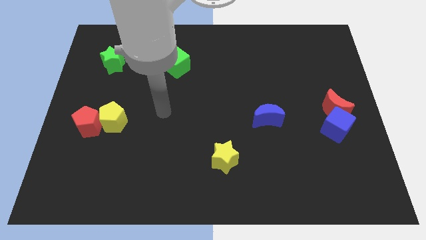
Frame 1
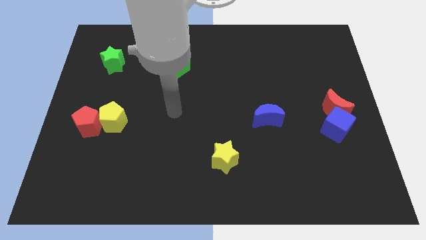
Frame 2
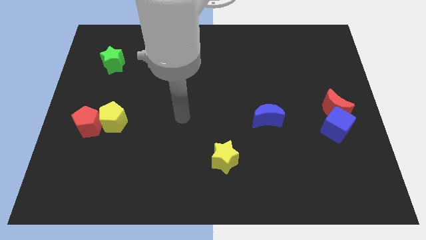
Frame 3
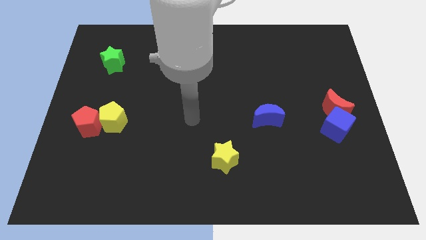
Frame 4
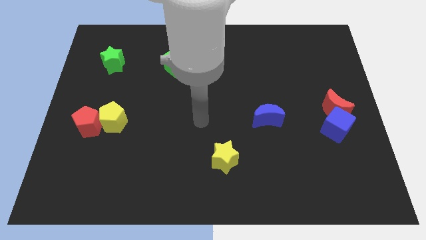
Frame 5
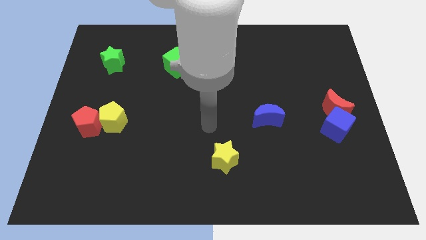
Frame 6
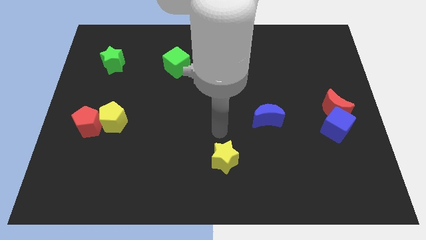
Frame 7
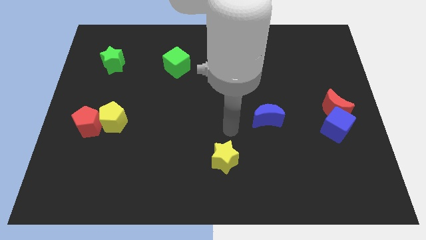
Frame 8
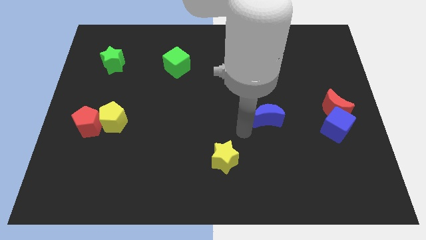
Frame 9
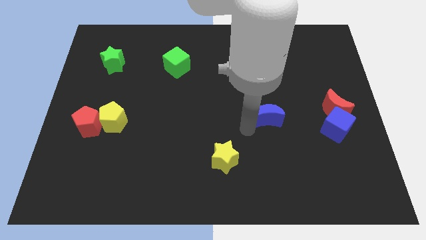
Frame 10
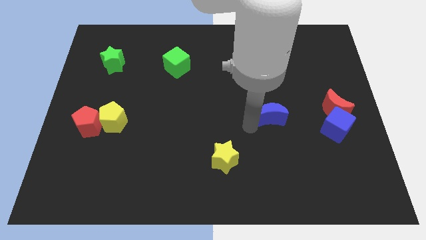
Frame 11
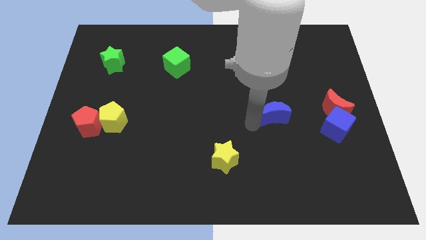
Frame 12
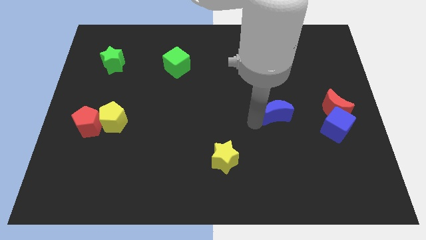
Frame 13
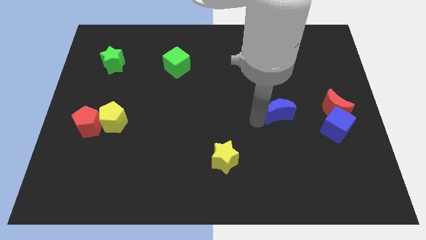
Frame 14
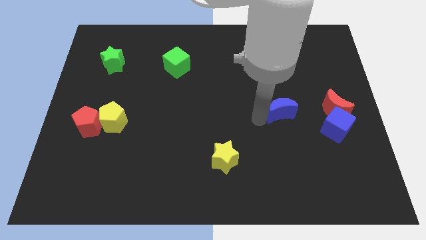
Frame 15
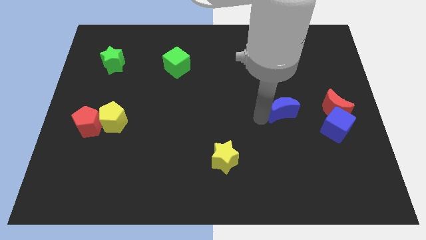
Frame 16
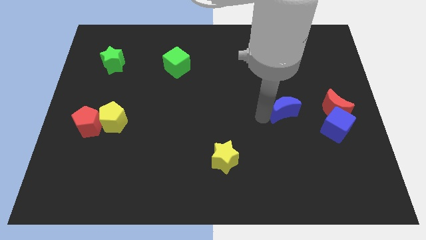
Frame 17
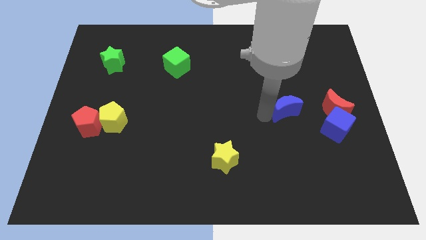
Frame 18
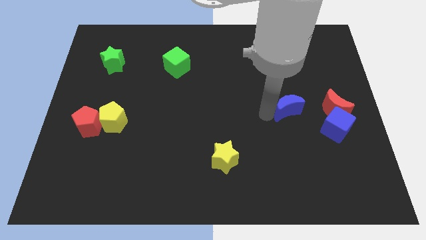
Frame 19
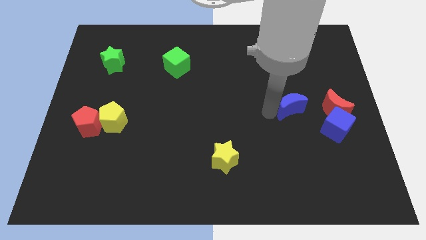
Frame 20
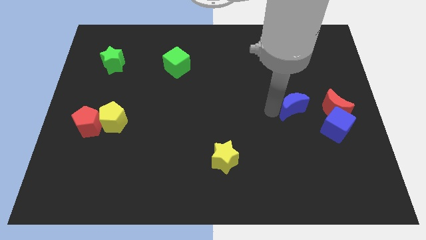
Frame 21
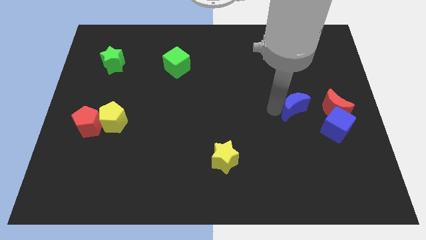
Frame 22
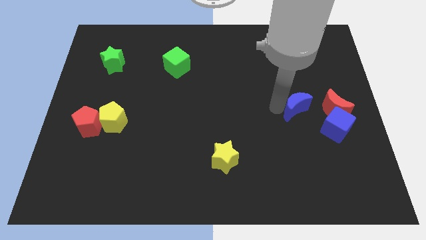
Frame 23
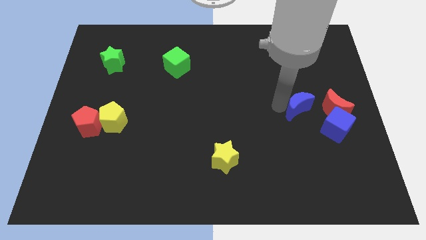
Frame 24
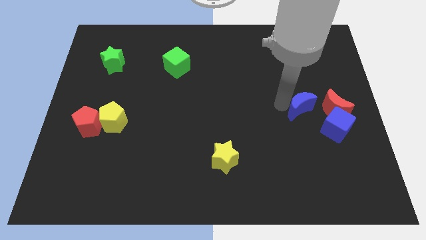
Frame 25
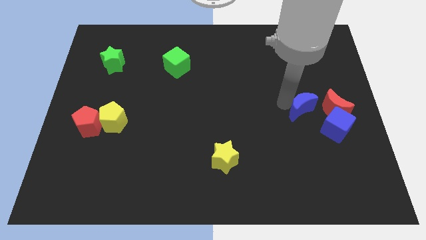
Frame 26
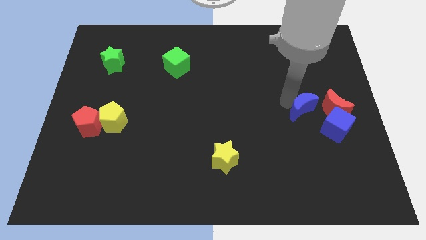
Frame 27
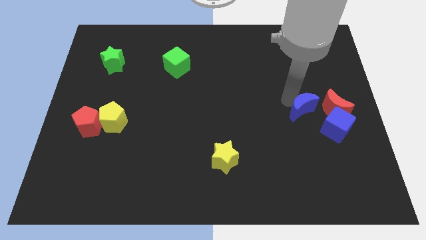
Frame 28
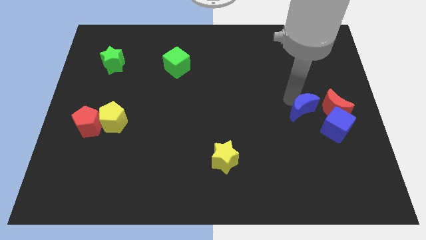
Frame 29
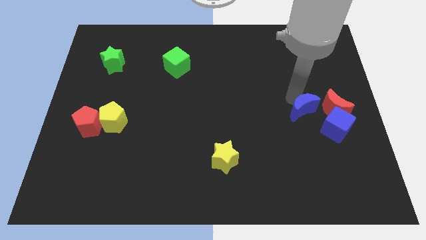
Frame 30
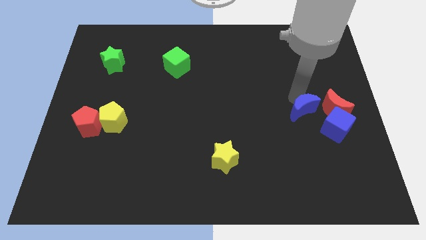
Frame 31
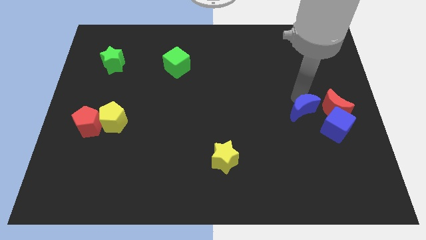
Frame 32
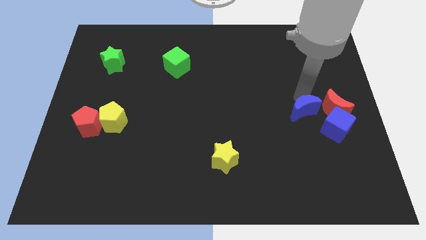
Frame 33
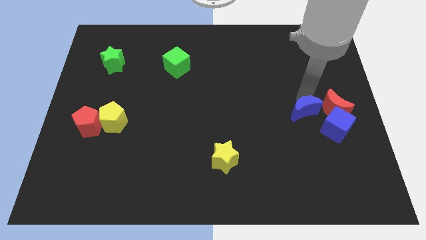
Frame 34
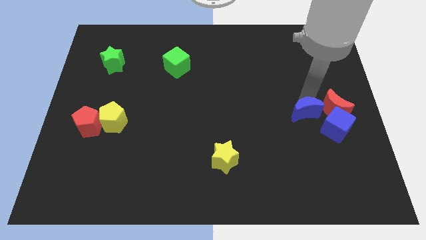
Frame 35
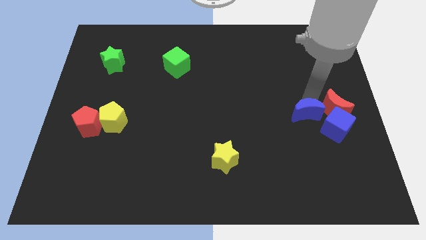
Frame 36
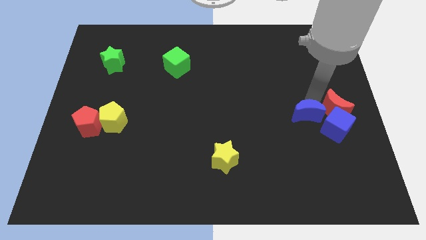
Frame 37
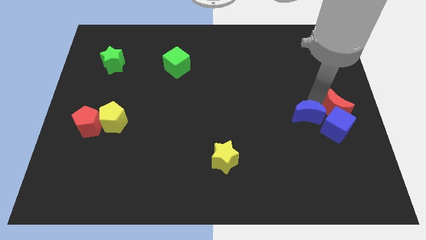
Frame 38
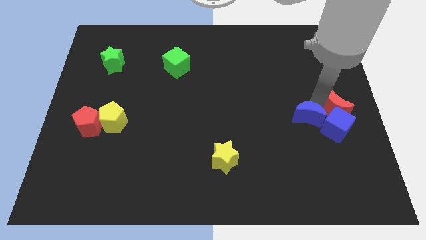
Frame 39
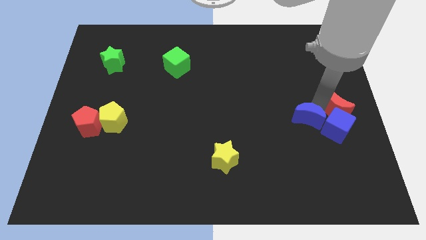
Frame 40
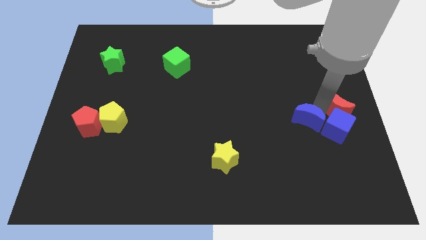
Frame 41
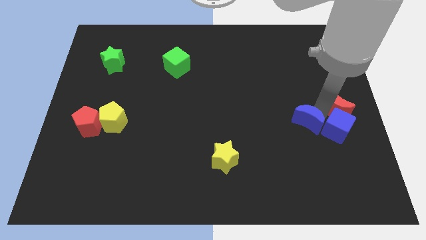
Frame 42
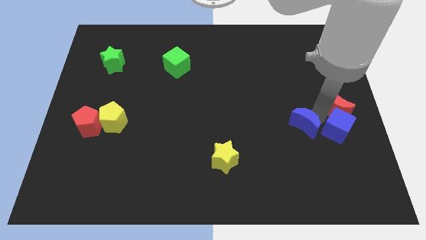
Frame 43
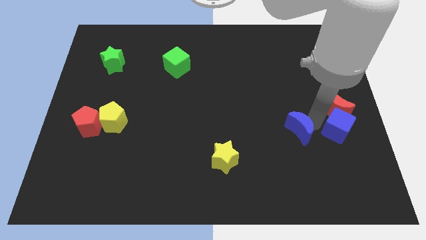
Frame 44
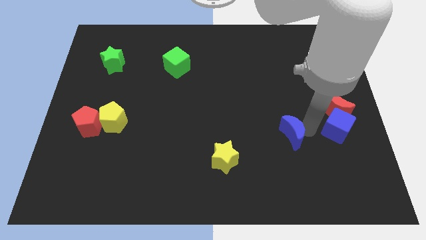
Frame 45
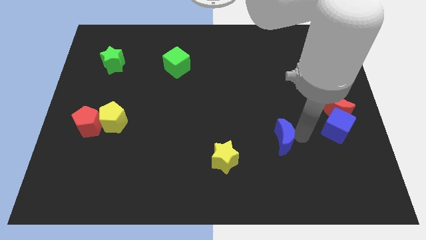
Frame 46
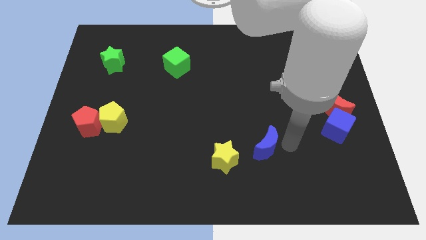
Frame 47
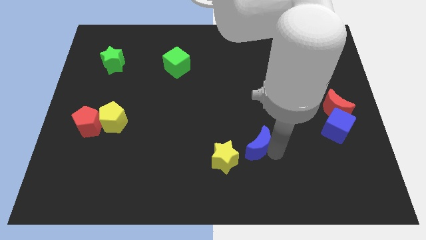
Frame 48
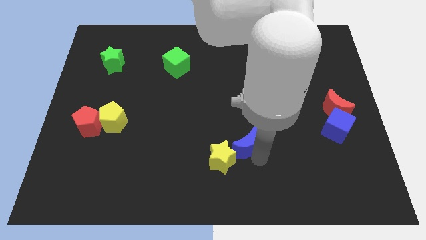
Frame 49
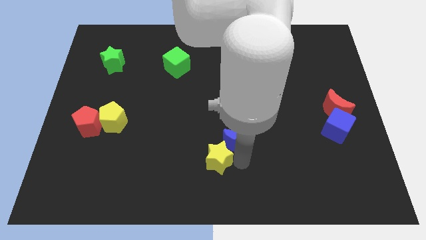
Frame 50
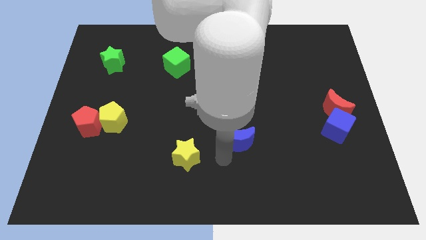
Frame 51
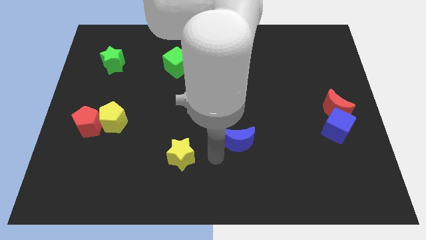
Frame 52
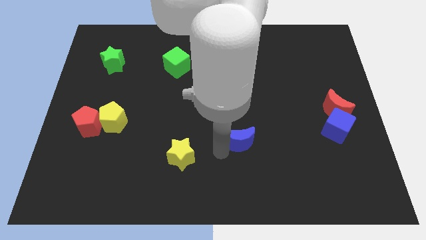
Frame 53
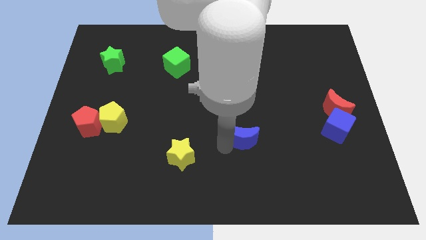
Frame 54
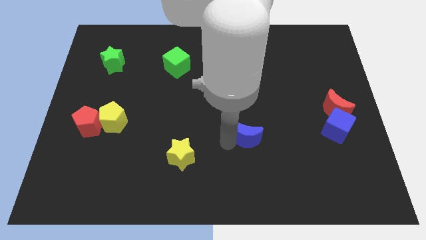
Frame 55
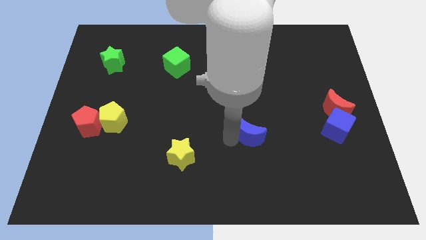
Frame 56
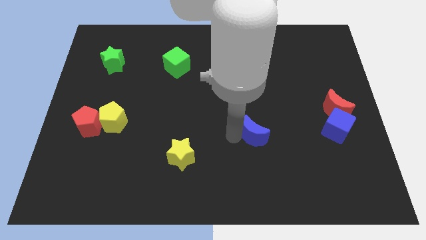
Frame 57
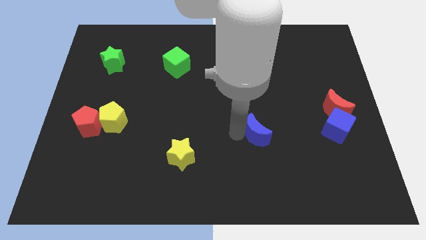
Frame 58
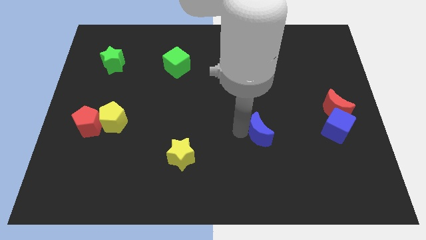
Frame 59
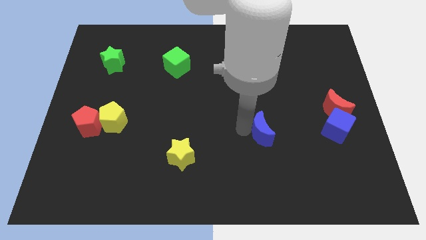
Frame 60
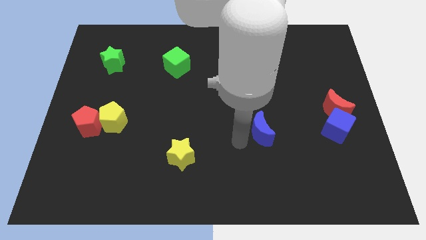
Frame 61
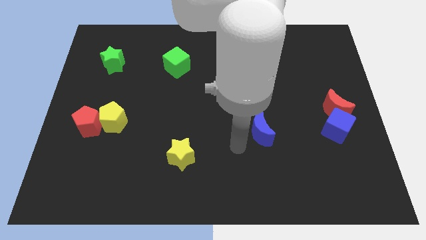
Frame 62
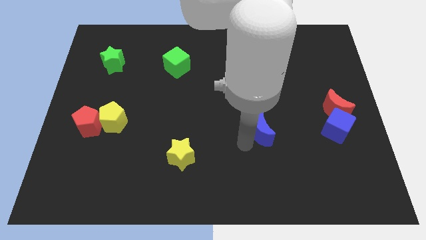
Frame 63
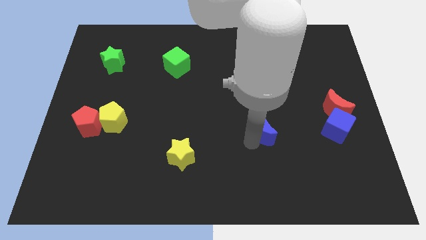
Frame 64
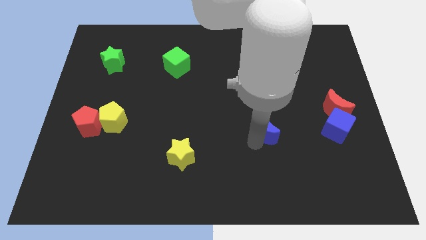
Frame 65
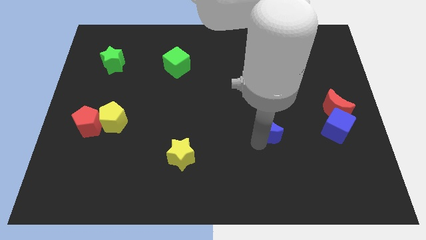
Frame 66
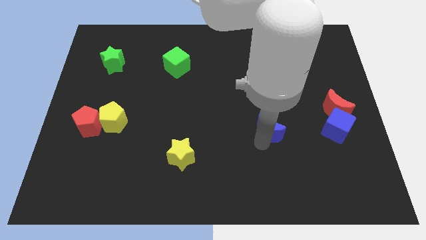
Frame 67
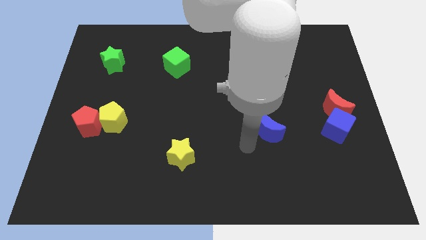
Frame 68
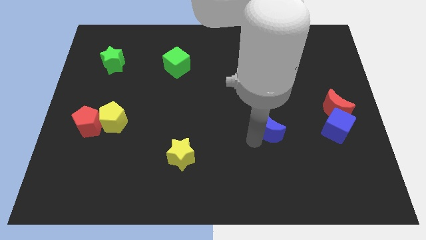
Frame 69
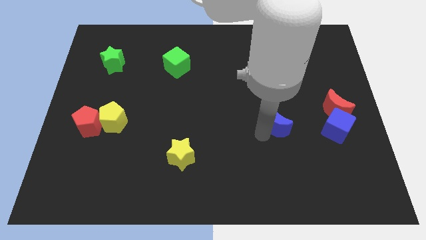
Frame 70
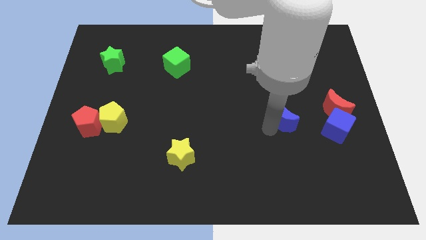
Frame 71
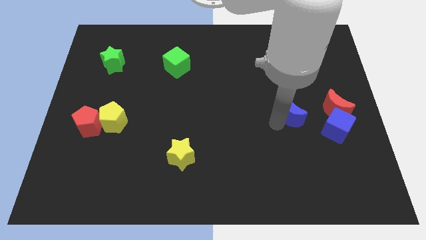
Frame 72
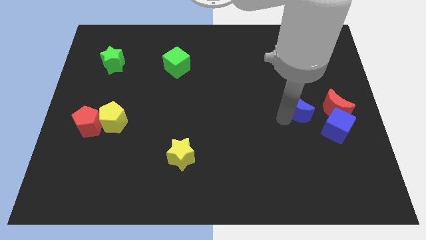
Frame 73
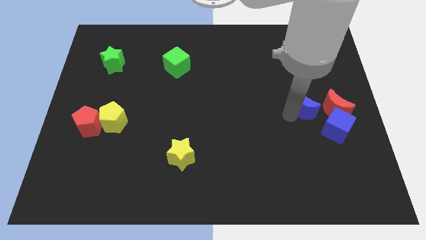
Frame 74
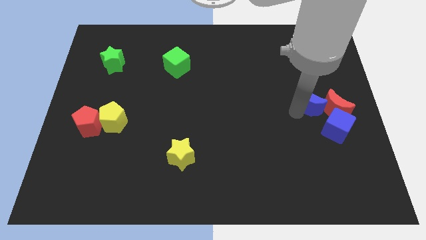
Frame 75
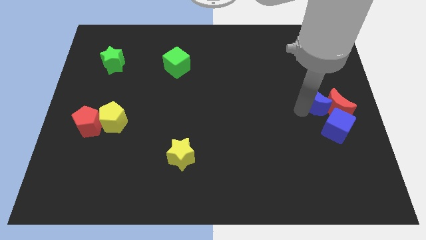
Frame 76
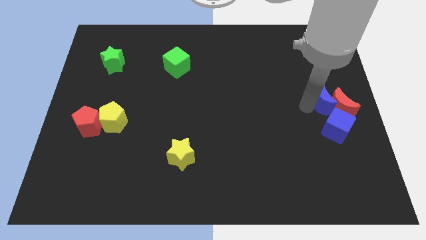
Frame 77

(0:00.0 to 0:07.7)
slide the blue moon to the center right
